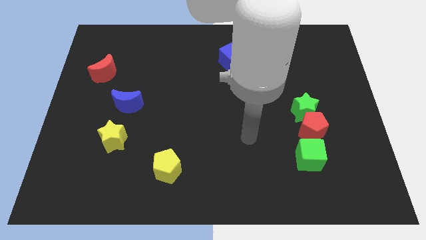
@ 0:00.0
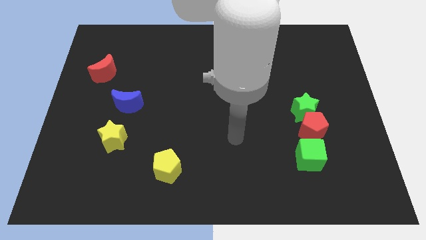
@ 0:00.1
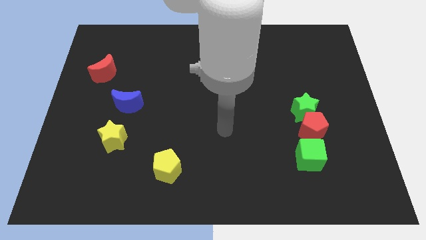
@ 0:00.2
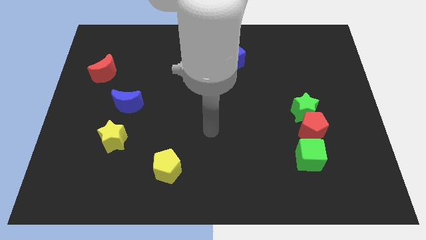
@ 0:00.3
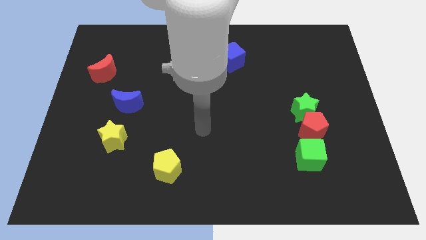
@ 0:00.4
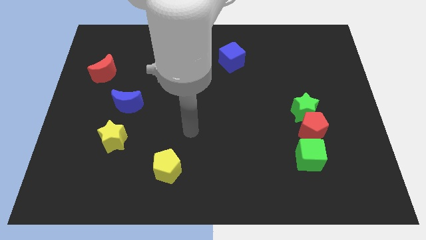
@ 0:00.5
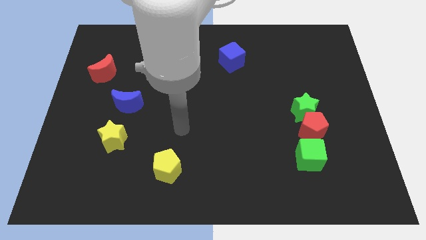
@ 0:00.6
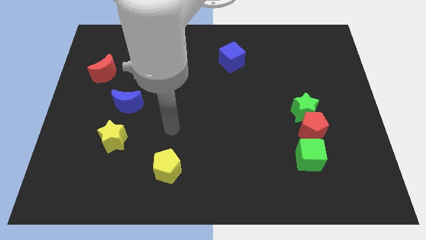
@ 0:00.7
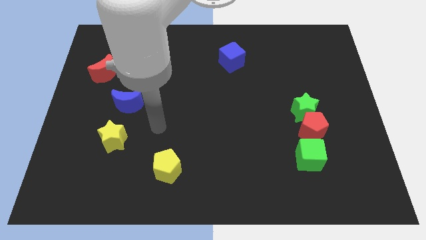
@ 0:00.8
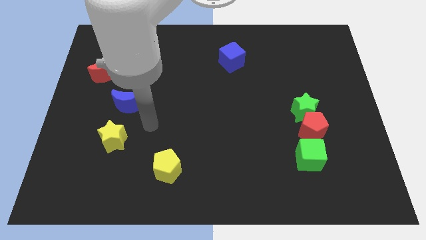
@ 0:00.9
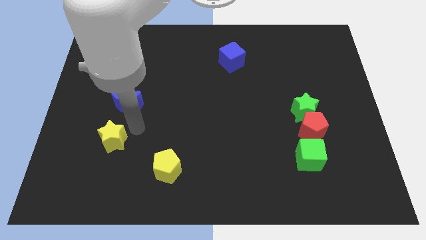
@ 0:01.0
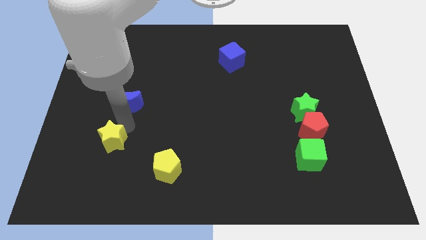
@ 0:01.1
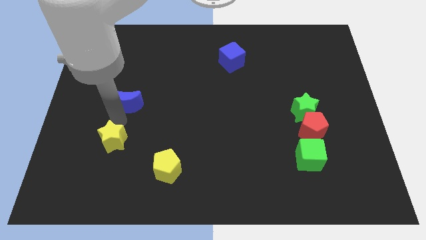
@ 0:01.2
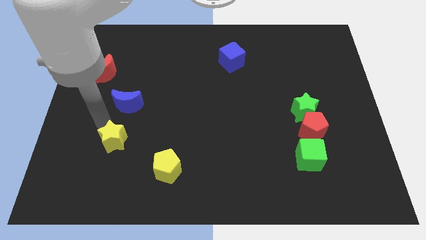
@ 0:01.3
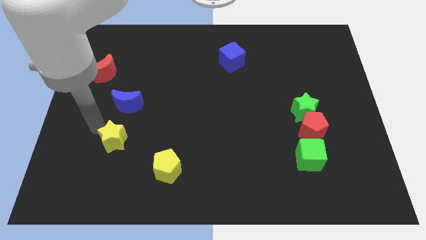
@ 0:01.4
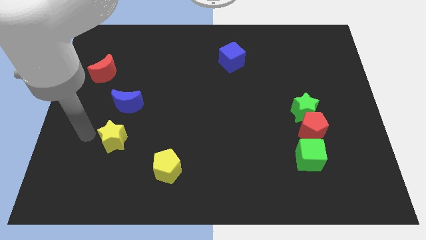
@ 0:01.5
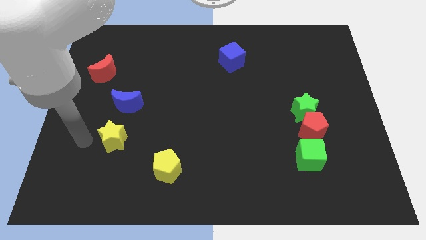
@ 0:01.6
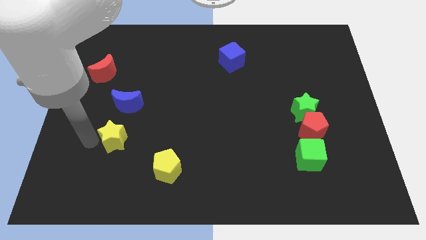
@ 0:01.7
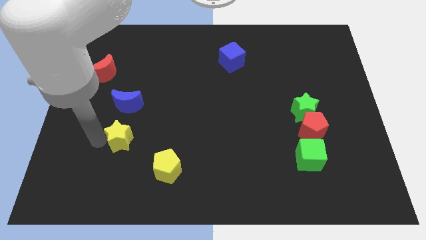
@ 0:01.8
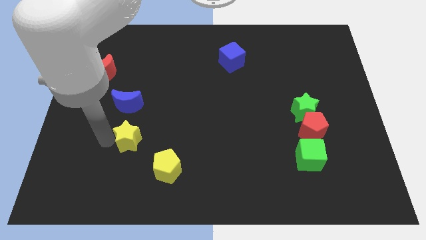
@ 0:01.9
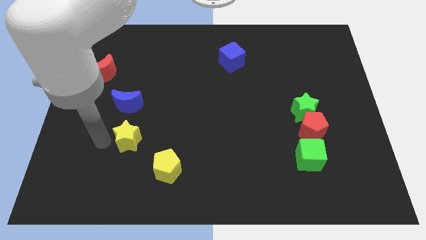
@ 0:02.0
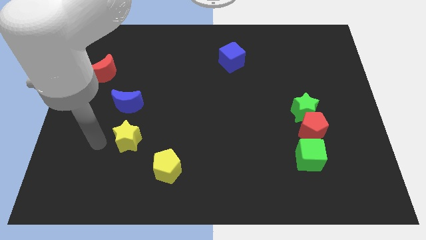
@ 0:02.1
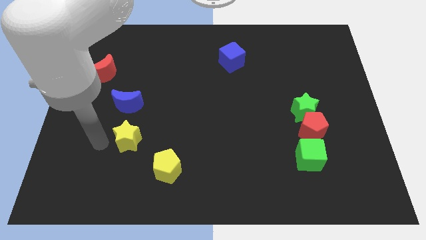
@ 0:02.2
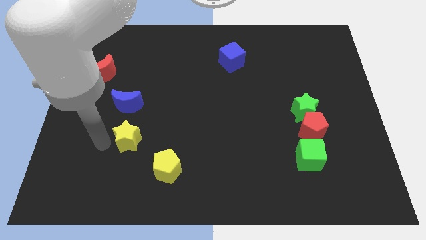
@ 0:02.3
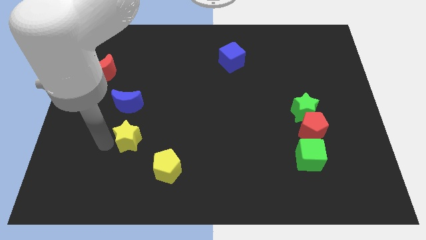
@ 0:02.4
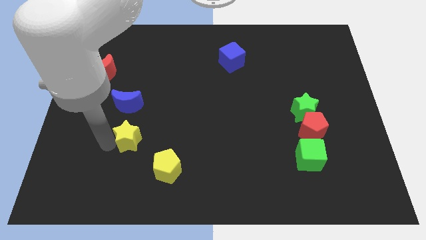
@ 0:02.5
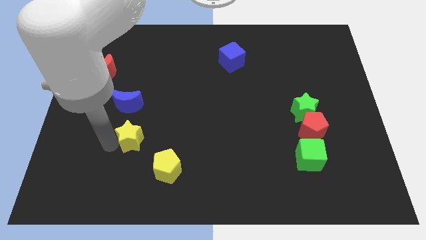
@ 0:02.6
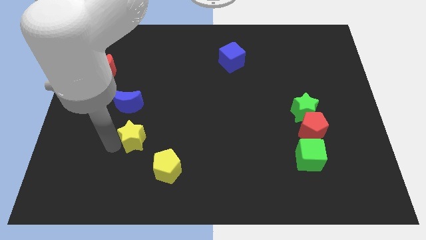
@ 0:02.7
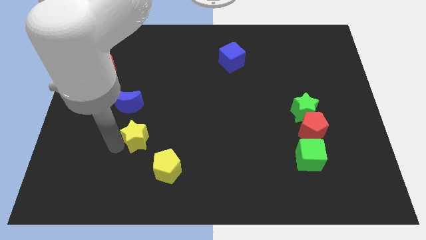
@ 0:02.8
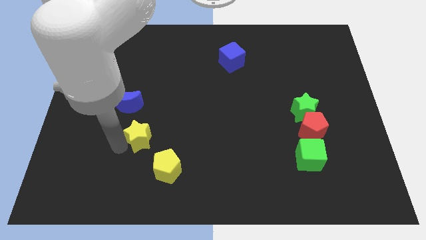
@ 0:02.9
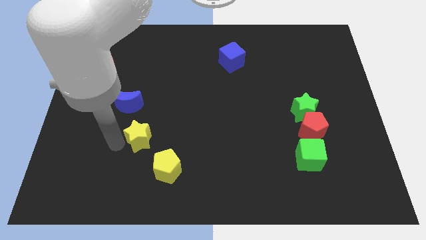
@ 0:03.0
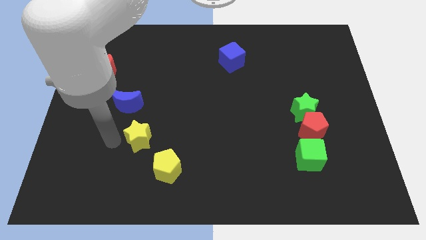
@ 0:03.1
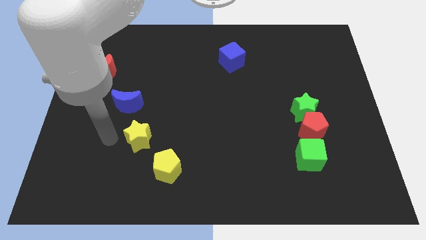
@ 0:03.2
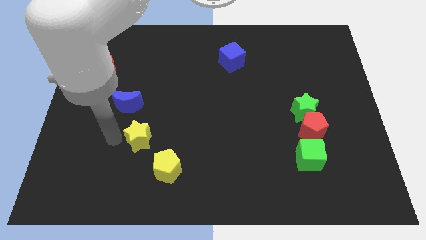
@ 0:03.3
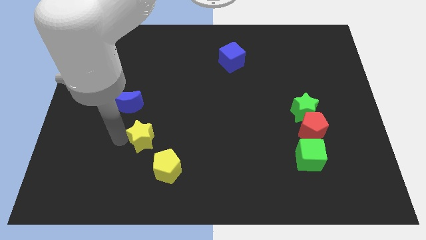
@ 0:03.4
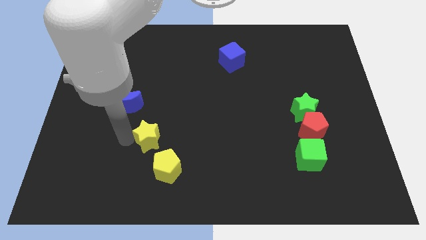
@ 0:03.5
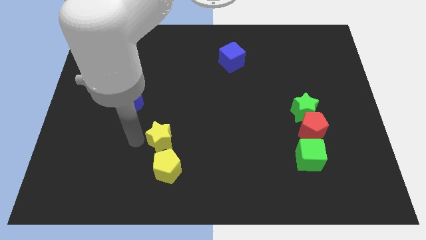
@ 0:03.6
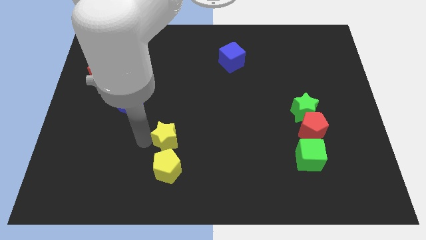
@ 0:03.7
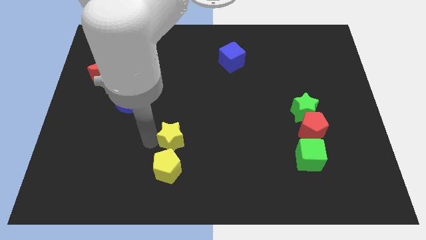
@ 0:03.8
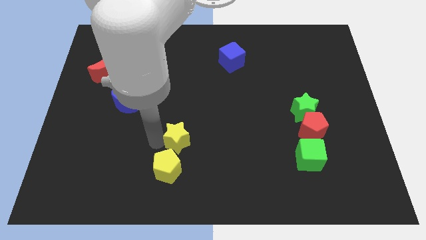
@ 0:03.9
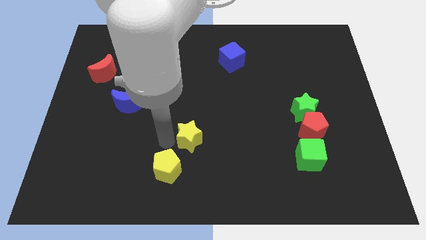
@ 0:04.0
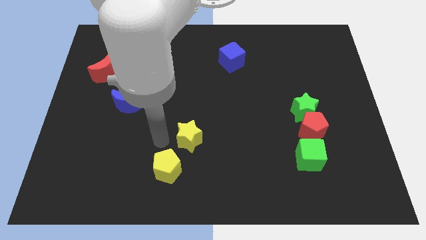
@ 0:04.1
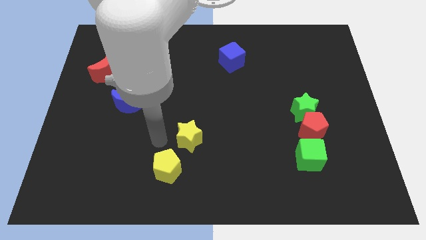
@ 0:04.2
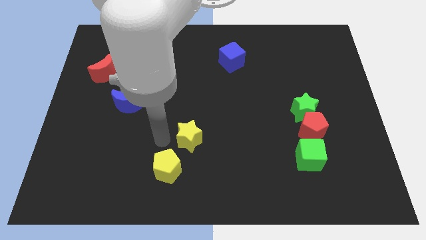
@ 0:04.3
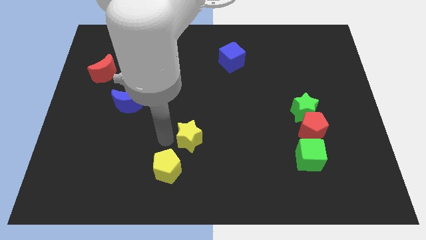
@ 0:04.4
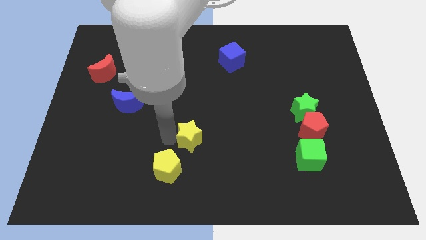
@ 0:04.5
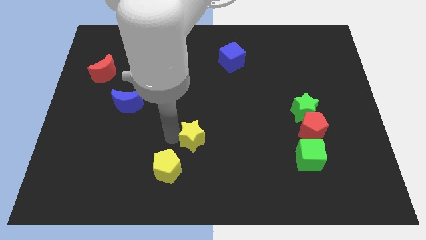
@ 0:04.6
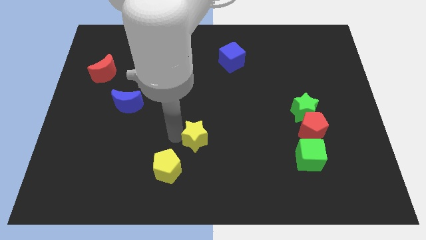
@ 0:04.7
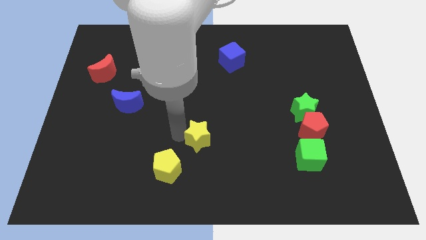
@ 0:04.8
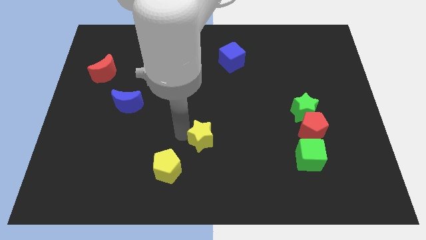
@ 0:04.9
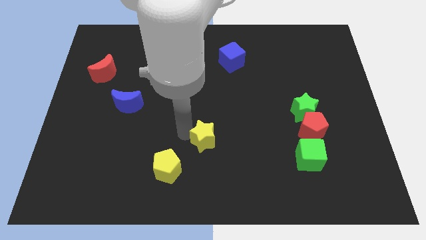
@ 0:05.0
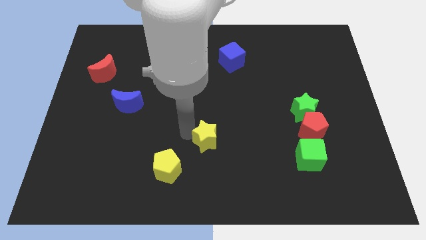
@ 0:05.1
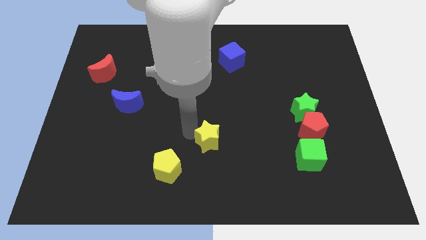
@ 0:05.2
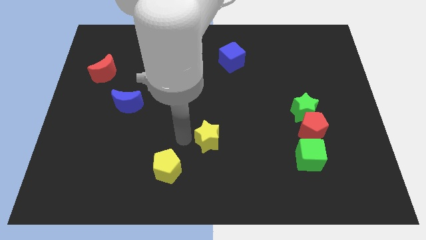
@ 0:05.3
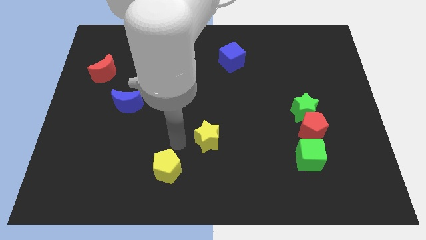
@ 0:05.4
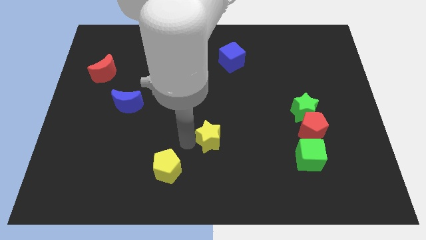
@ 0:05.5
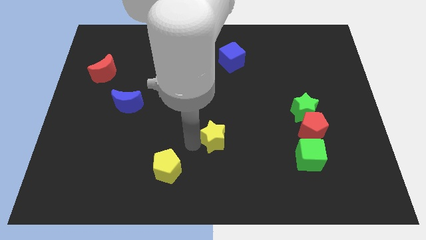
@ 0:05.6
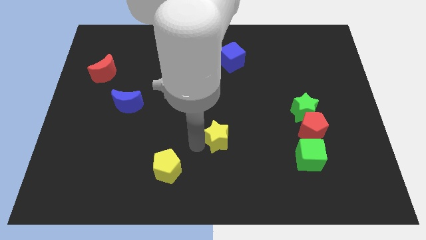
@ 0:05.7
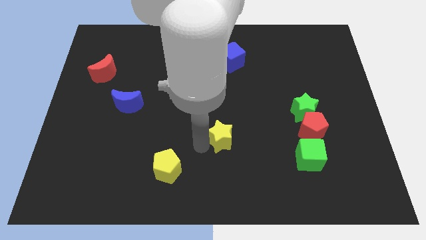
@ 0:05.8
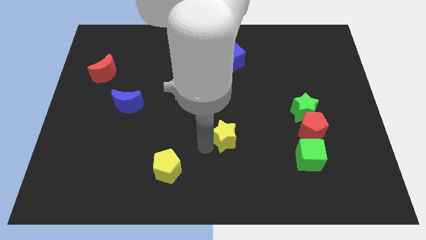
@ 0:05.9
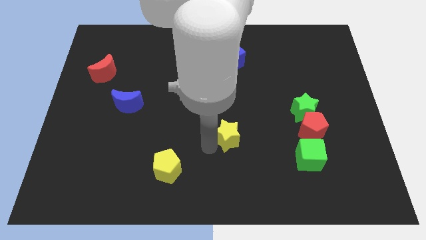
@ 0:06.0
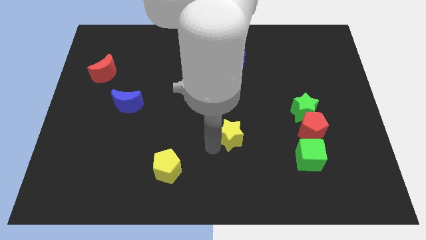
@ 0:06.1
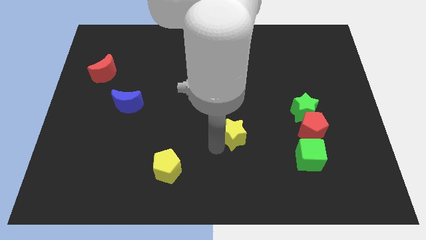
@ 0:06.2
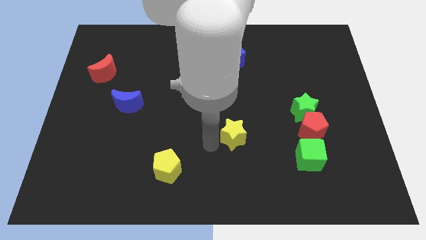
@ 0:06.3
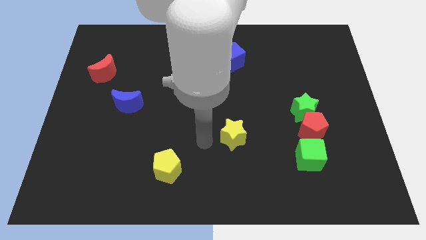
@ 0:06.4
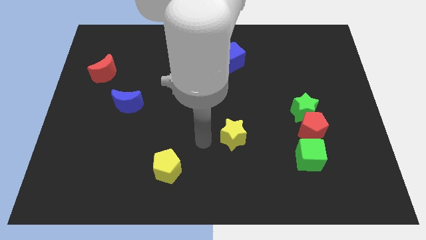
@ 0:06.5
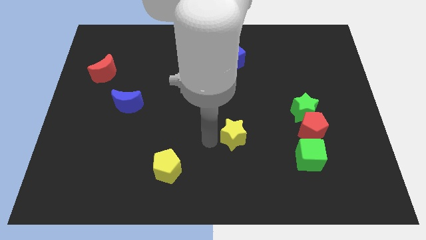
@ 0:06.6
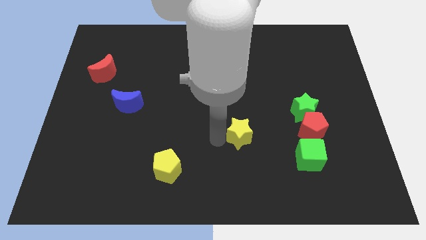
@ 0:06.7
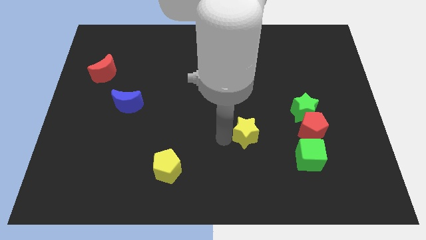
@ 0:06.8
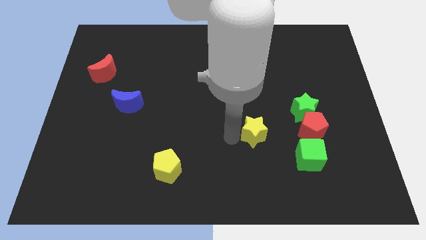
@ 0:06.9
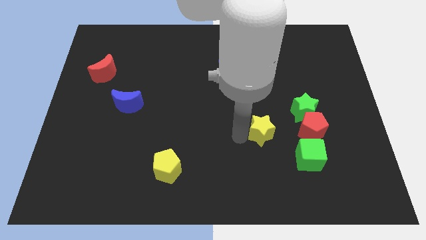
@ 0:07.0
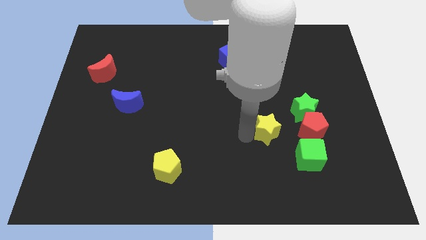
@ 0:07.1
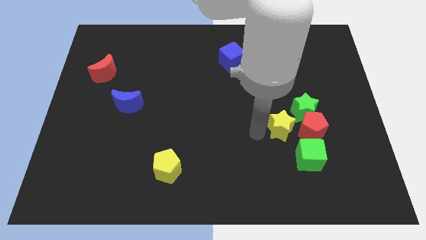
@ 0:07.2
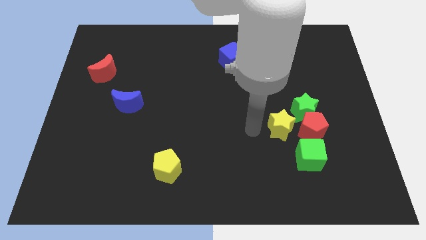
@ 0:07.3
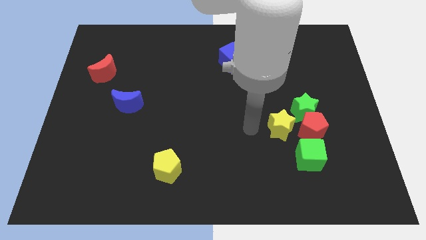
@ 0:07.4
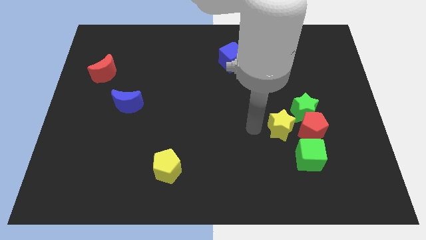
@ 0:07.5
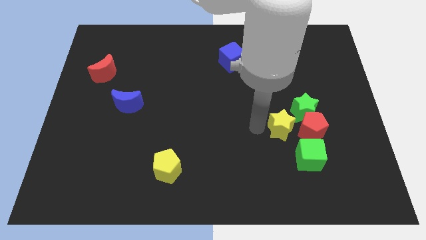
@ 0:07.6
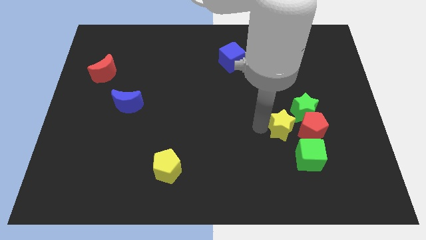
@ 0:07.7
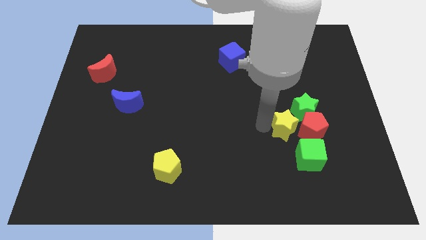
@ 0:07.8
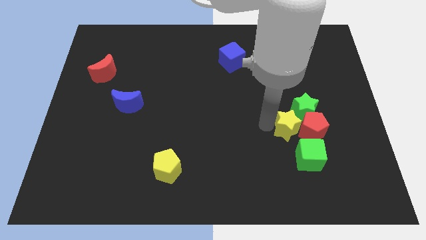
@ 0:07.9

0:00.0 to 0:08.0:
put the yellow star next to the red pentagon
